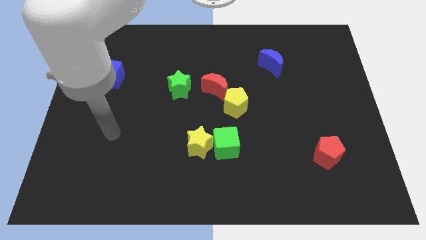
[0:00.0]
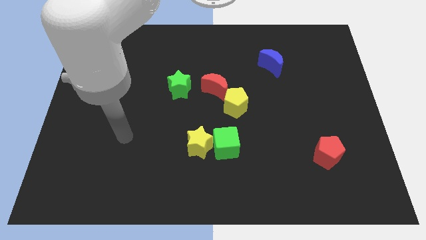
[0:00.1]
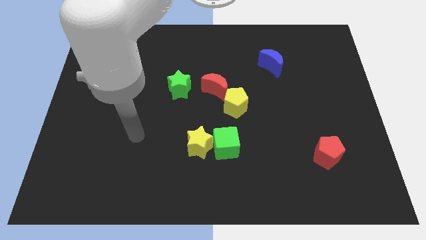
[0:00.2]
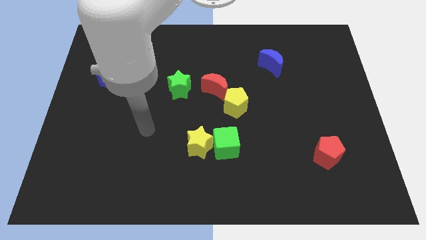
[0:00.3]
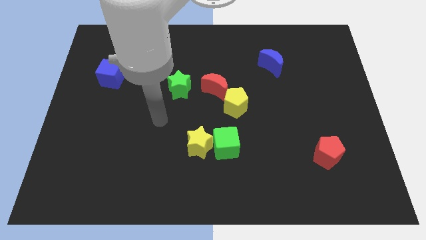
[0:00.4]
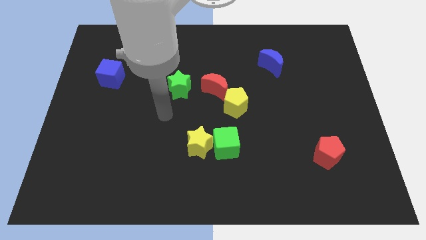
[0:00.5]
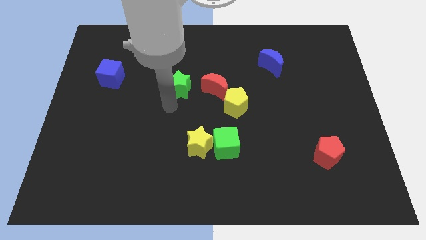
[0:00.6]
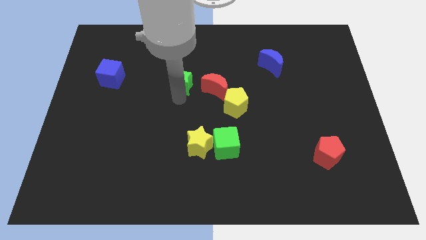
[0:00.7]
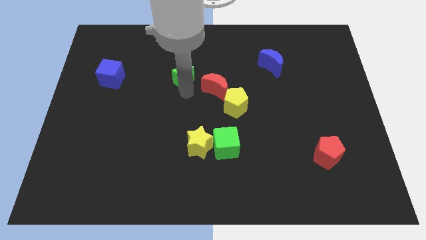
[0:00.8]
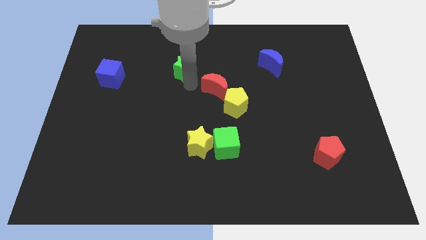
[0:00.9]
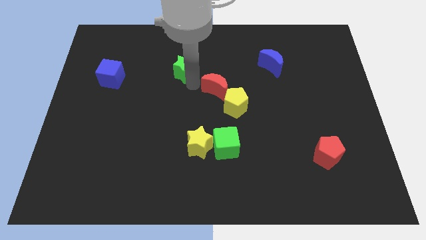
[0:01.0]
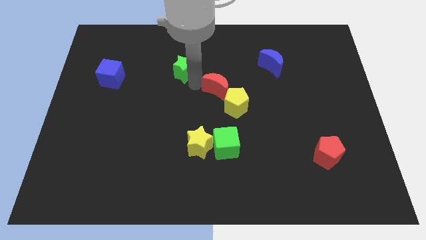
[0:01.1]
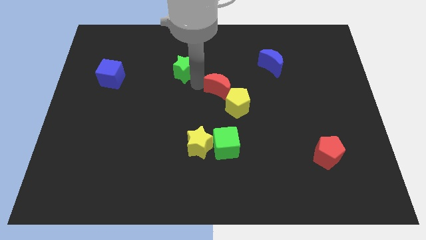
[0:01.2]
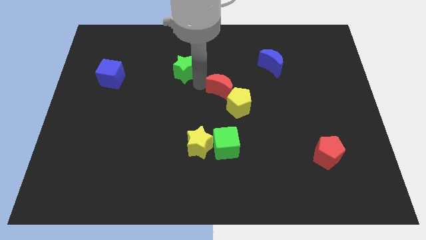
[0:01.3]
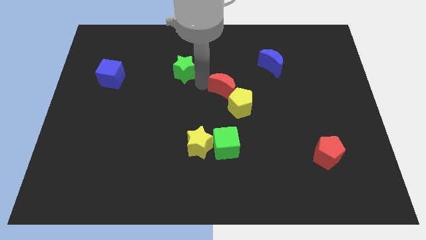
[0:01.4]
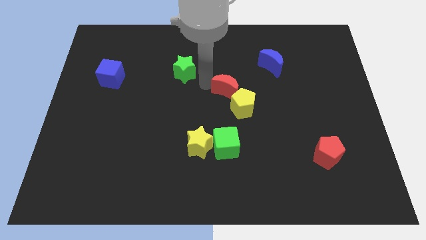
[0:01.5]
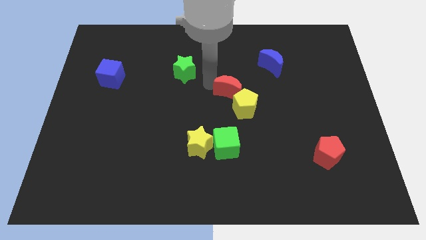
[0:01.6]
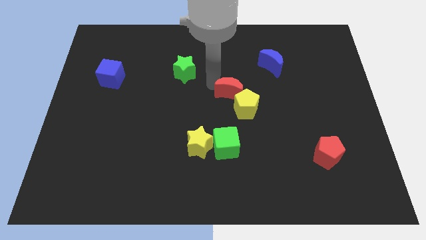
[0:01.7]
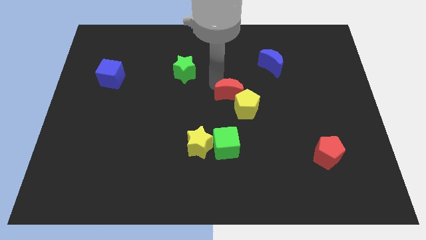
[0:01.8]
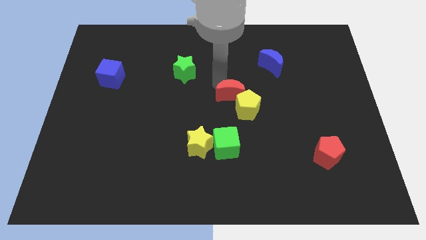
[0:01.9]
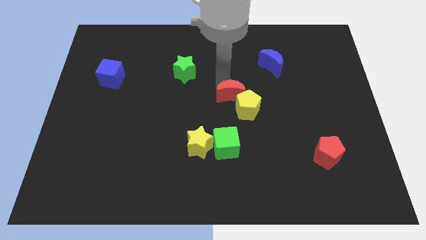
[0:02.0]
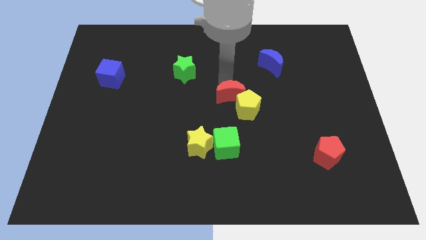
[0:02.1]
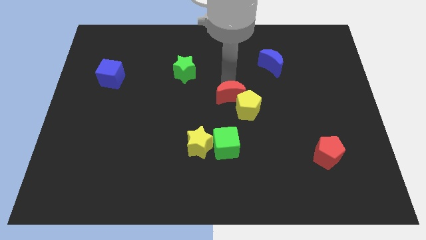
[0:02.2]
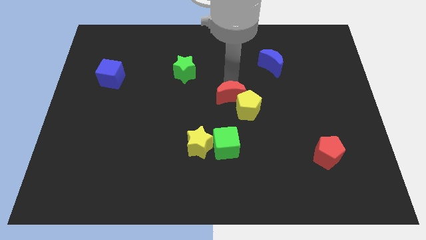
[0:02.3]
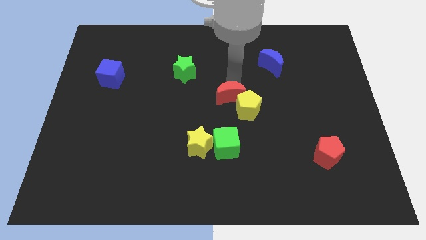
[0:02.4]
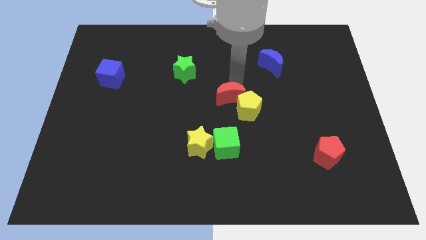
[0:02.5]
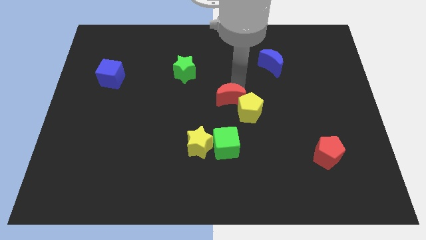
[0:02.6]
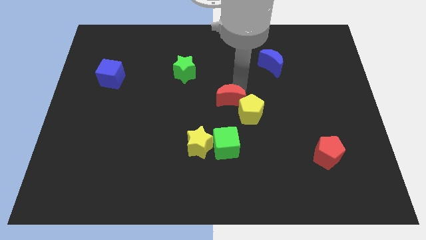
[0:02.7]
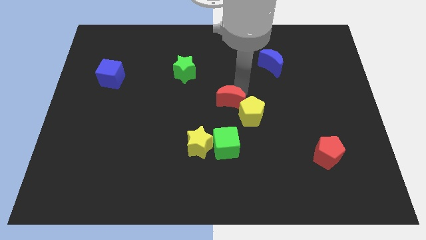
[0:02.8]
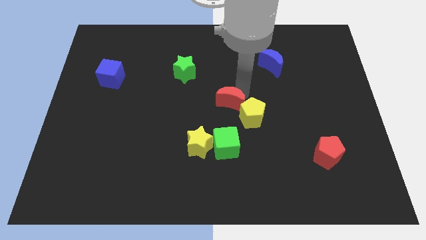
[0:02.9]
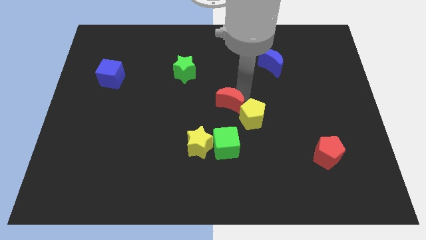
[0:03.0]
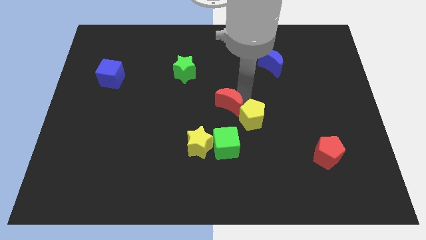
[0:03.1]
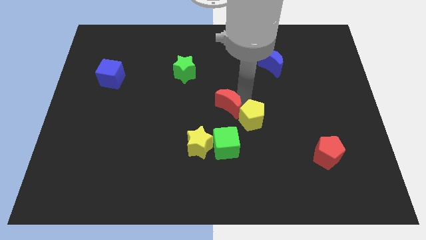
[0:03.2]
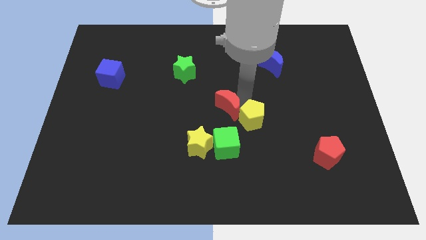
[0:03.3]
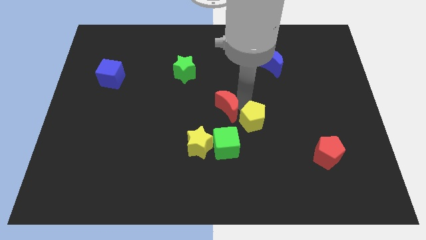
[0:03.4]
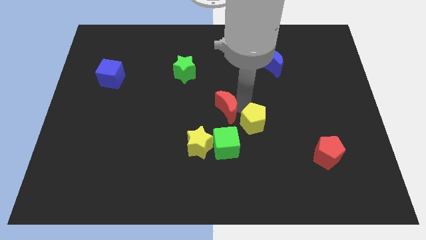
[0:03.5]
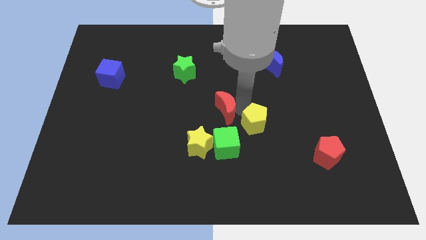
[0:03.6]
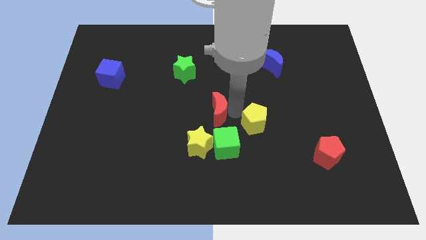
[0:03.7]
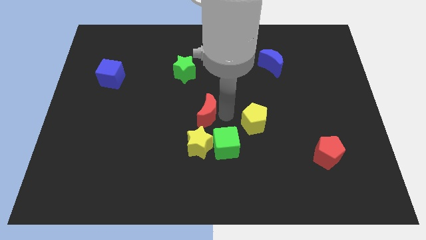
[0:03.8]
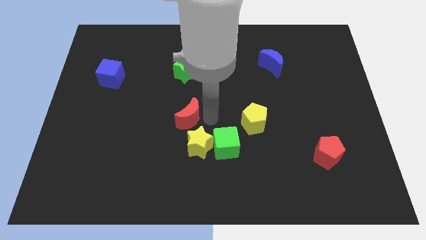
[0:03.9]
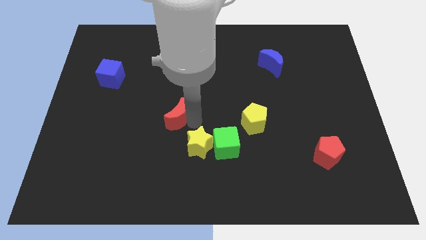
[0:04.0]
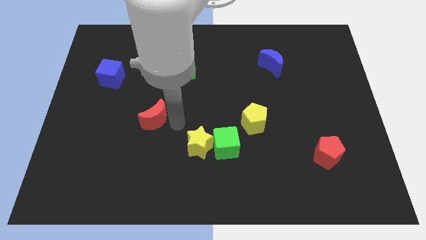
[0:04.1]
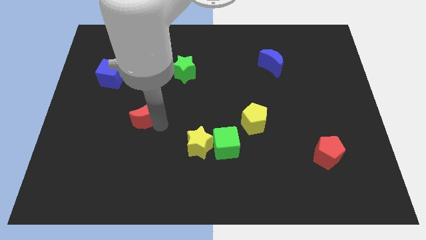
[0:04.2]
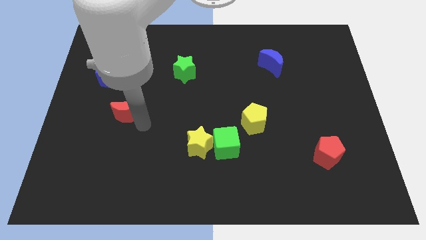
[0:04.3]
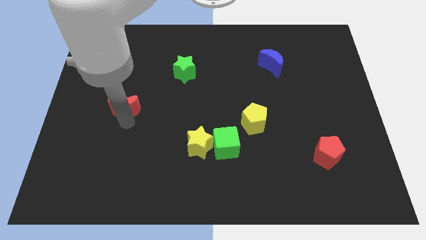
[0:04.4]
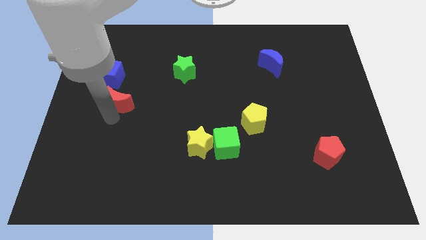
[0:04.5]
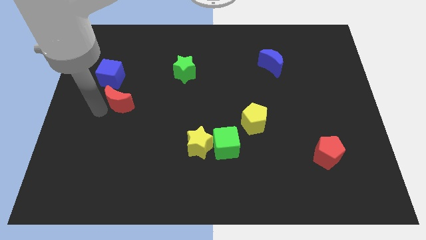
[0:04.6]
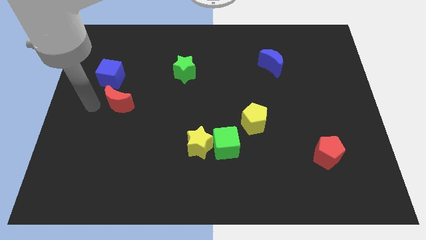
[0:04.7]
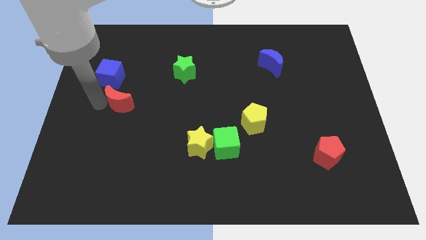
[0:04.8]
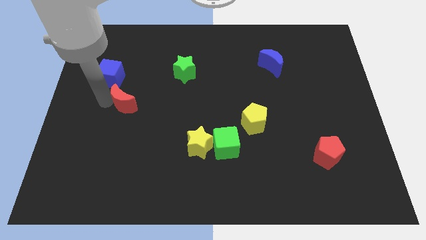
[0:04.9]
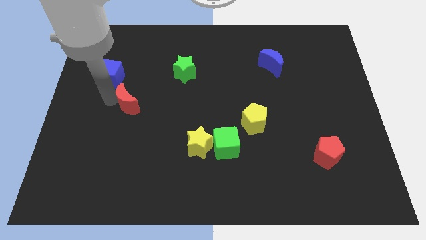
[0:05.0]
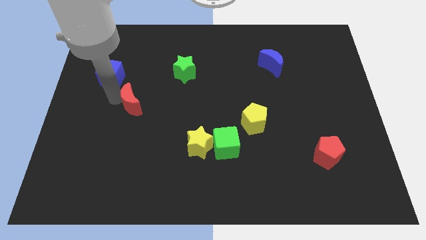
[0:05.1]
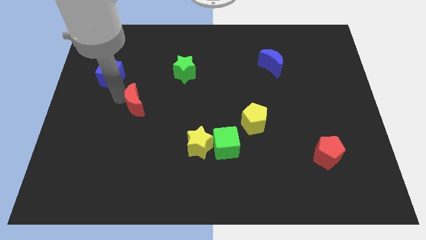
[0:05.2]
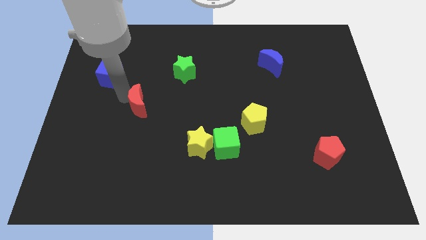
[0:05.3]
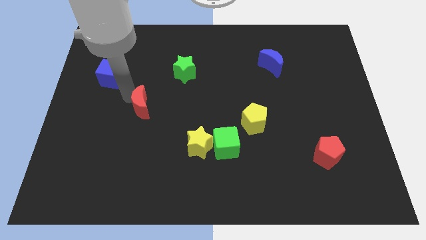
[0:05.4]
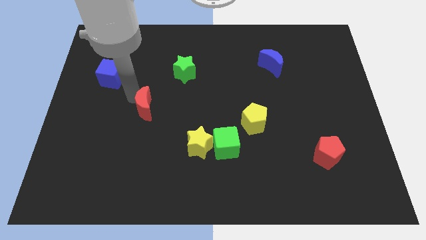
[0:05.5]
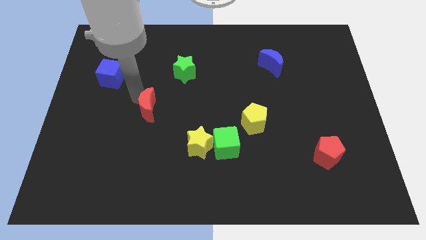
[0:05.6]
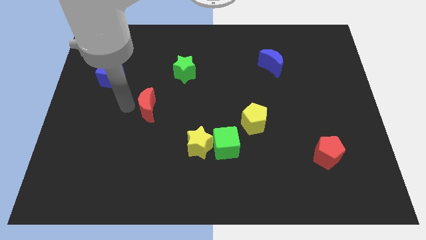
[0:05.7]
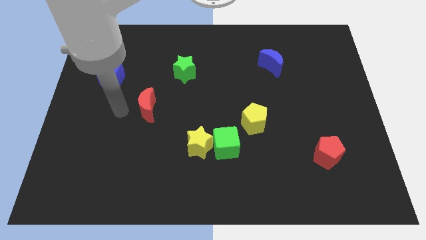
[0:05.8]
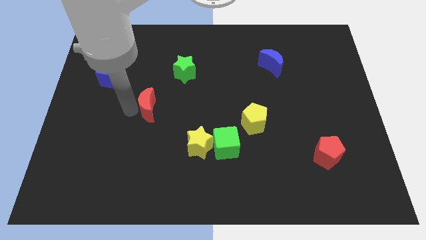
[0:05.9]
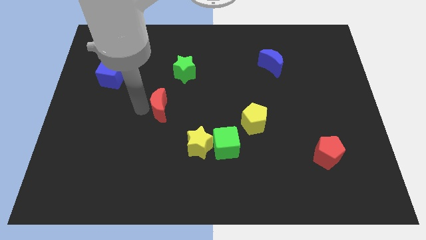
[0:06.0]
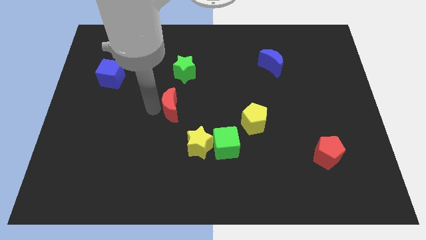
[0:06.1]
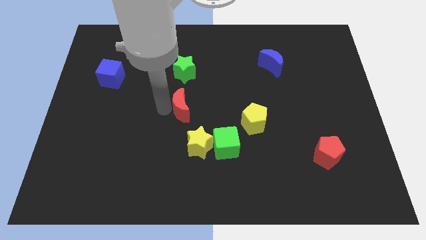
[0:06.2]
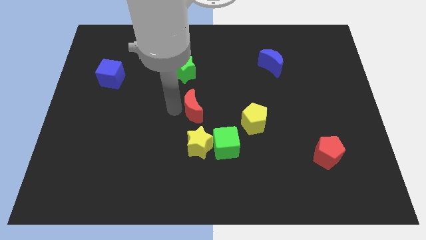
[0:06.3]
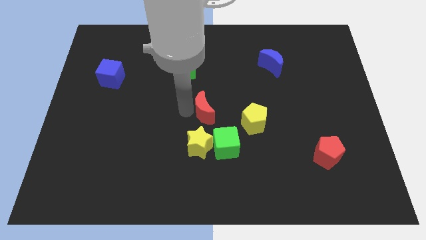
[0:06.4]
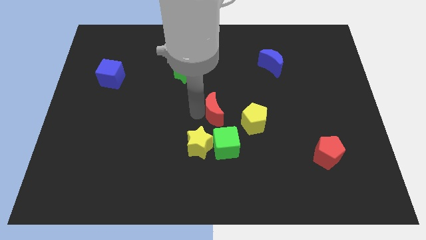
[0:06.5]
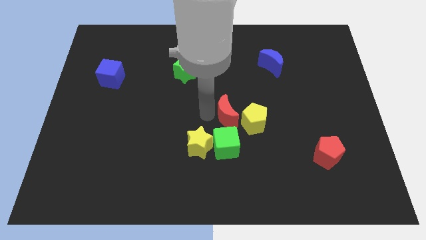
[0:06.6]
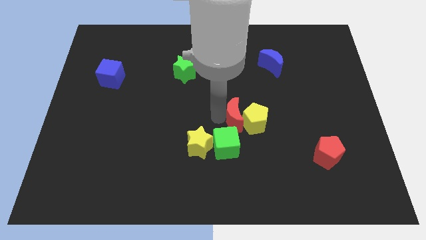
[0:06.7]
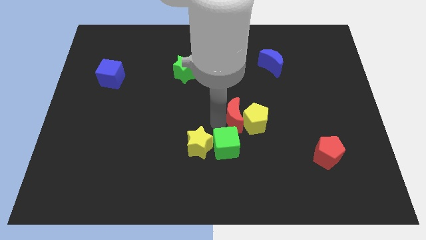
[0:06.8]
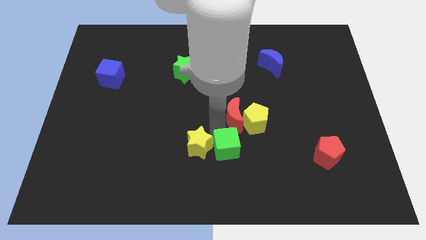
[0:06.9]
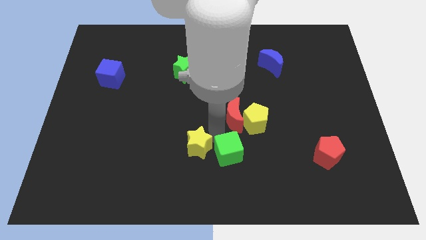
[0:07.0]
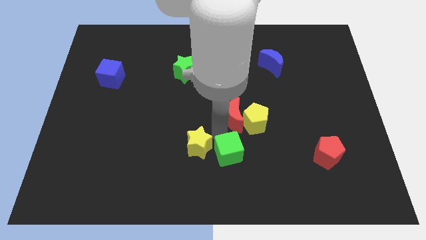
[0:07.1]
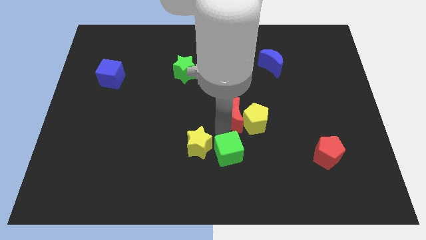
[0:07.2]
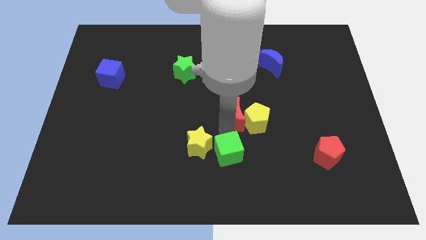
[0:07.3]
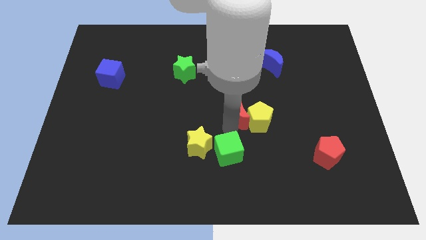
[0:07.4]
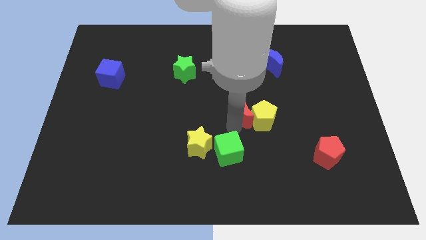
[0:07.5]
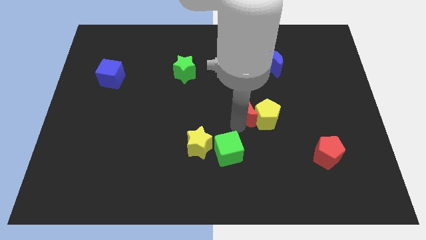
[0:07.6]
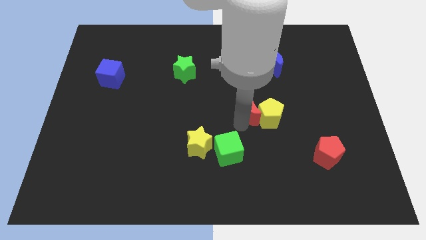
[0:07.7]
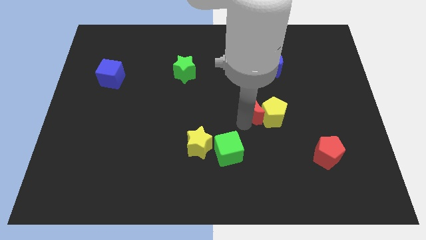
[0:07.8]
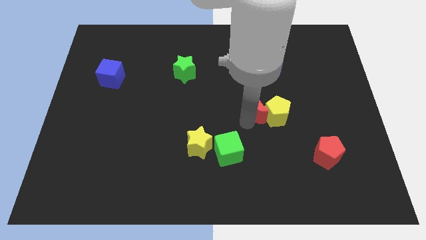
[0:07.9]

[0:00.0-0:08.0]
push the red moon right a little bit
